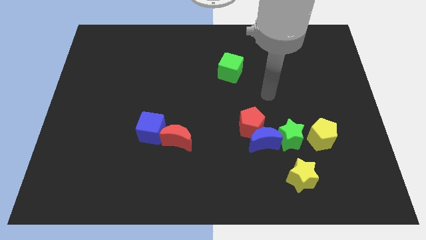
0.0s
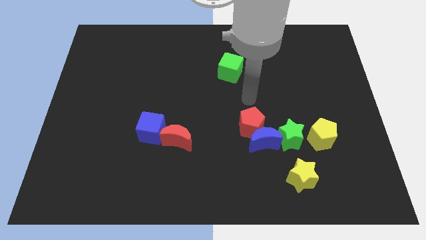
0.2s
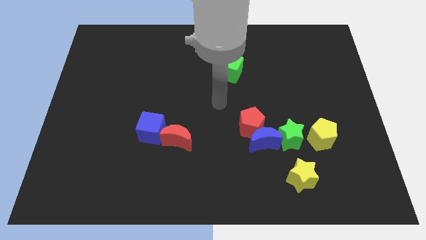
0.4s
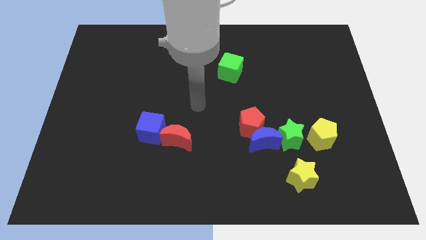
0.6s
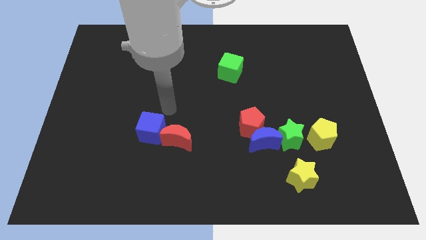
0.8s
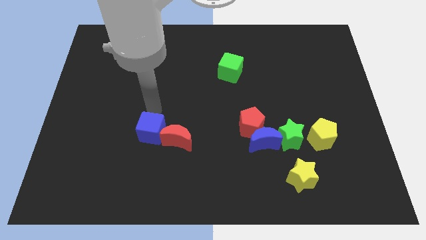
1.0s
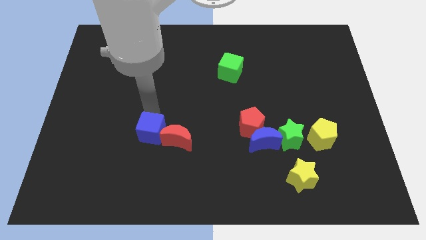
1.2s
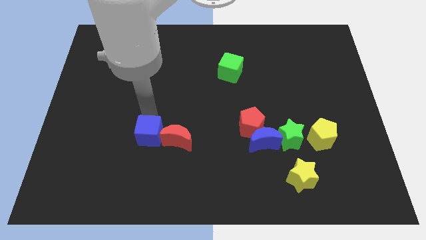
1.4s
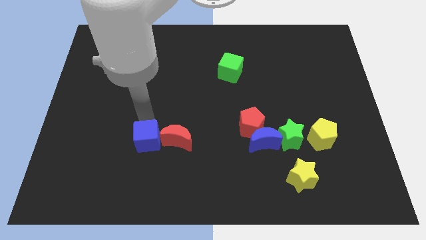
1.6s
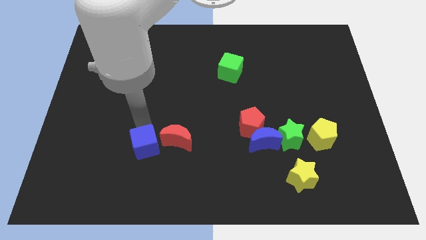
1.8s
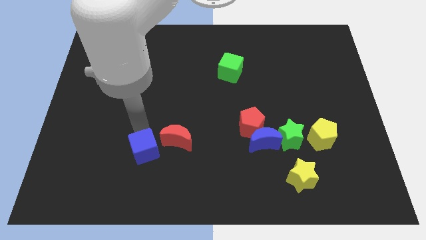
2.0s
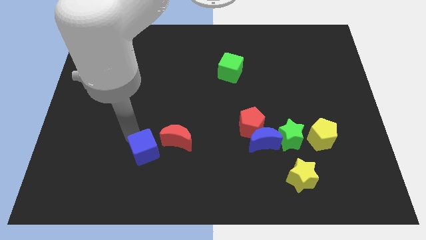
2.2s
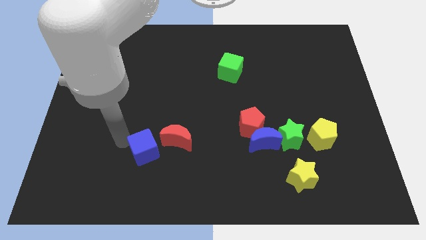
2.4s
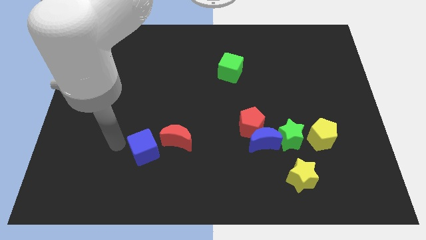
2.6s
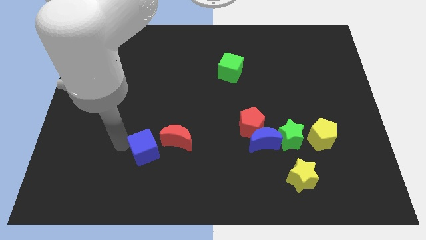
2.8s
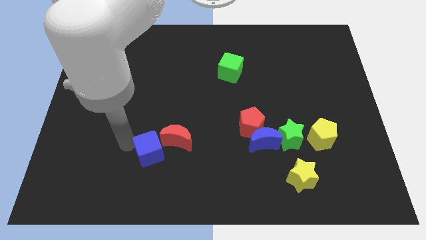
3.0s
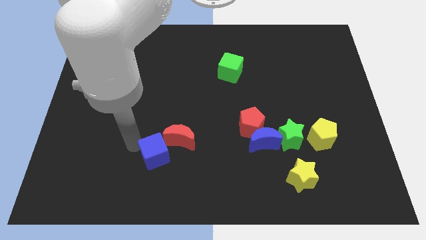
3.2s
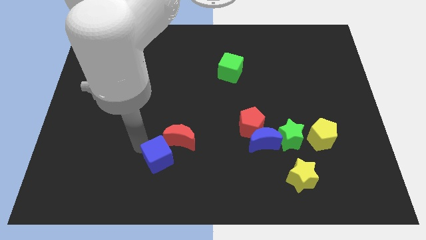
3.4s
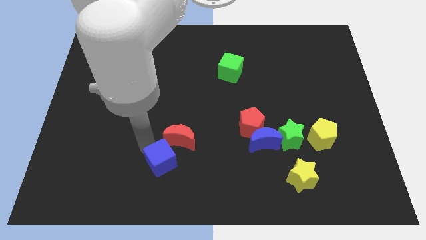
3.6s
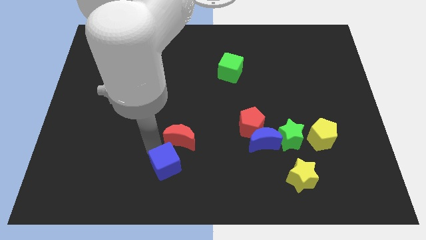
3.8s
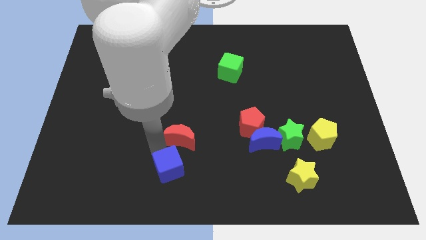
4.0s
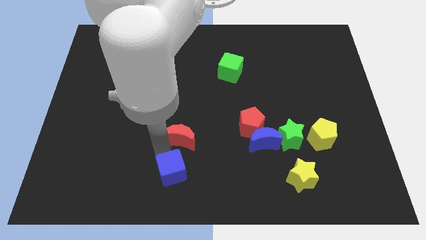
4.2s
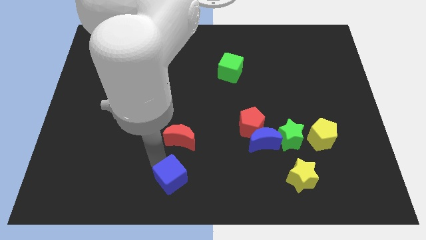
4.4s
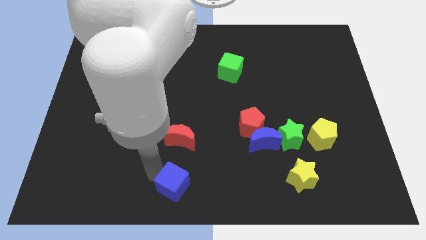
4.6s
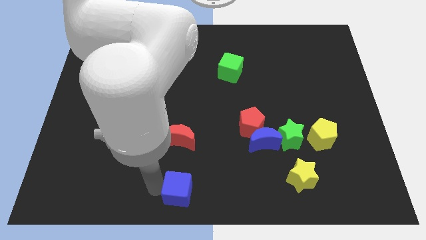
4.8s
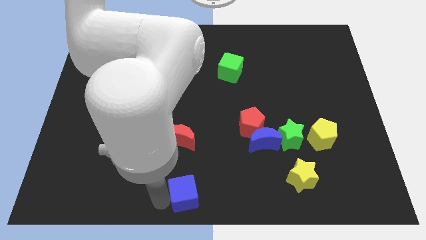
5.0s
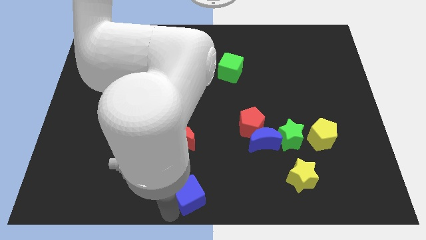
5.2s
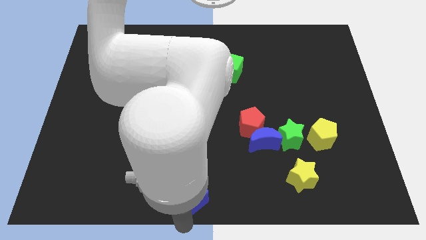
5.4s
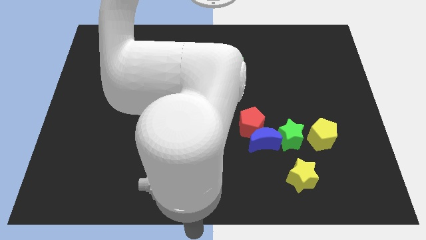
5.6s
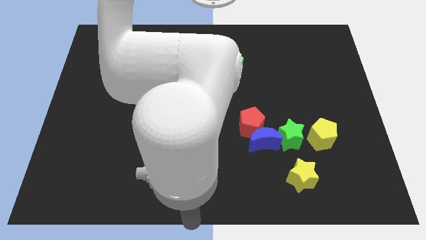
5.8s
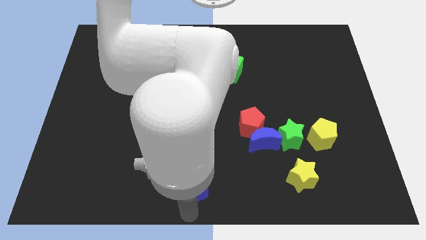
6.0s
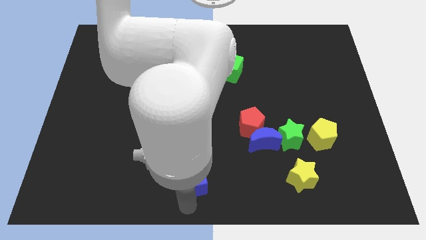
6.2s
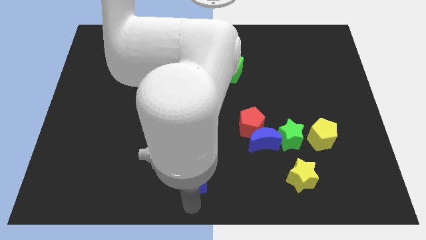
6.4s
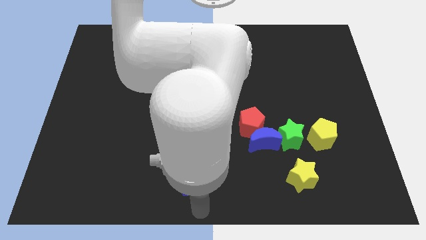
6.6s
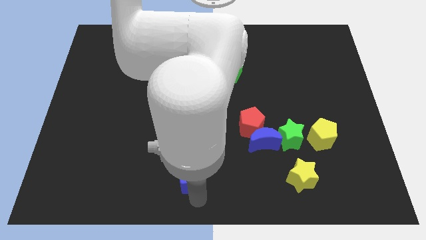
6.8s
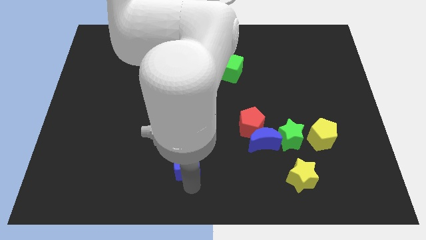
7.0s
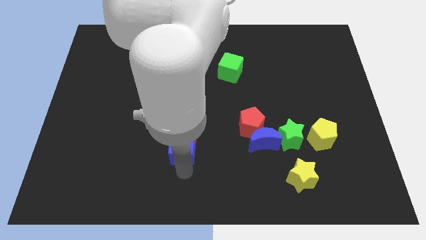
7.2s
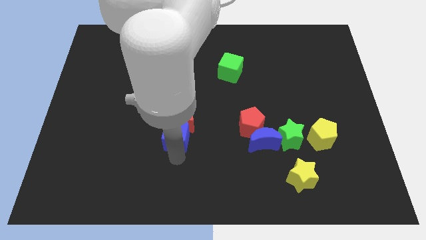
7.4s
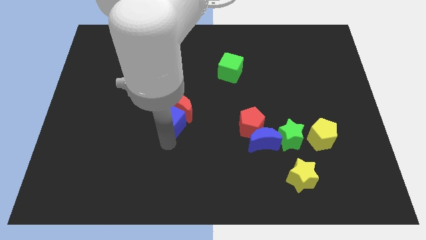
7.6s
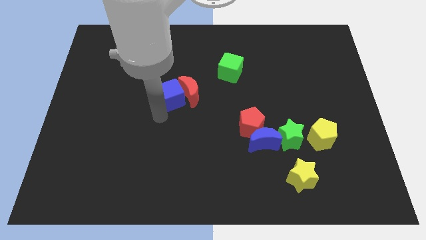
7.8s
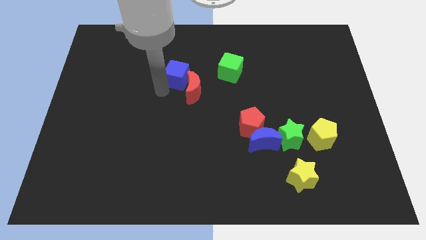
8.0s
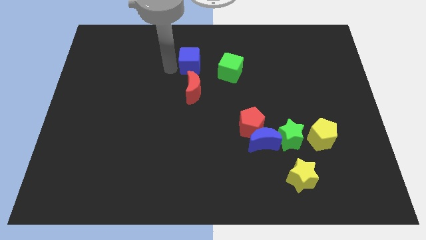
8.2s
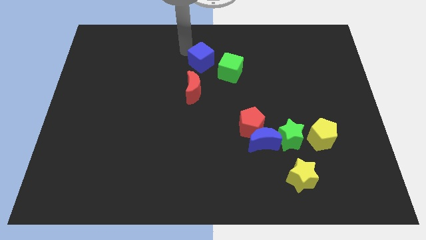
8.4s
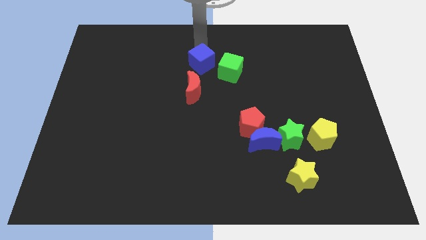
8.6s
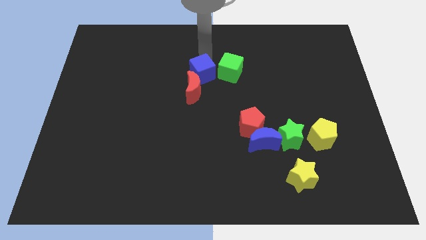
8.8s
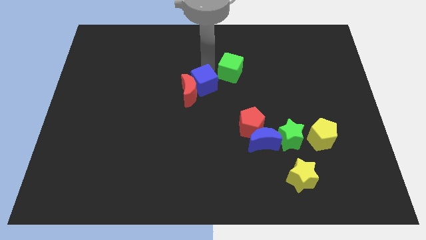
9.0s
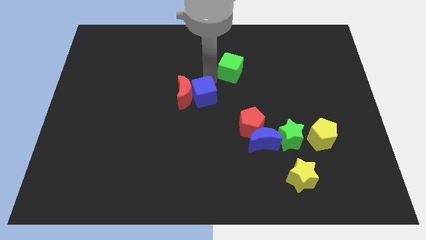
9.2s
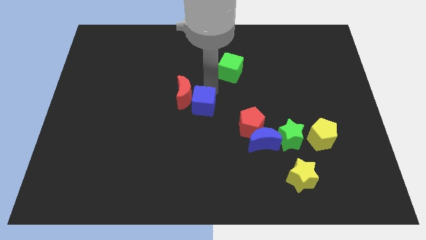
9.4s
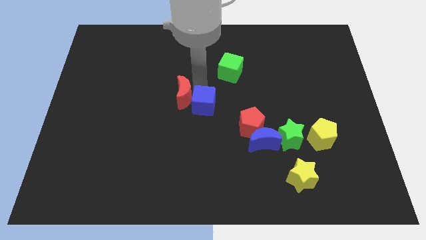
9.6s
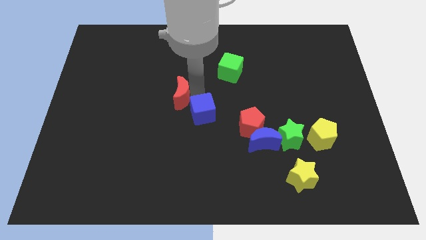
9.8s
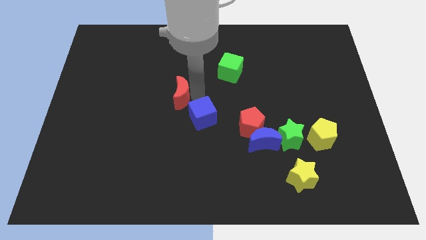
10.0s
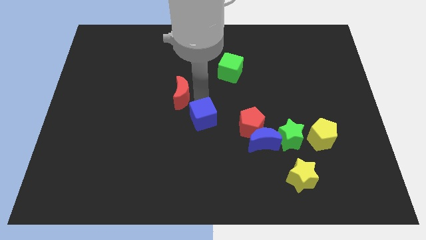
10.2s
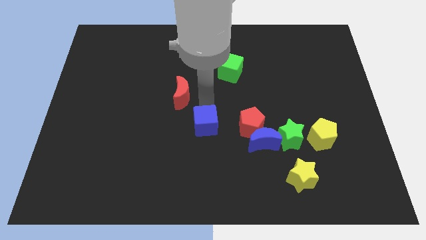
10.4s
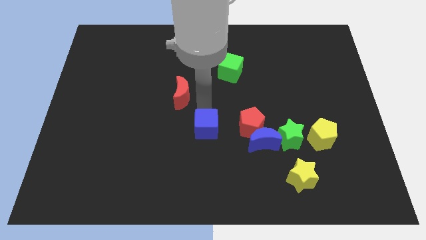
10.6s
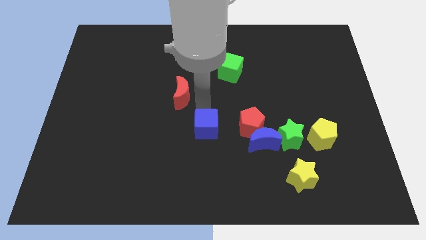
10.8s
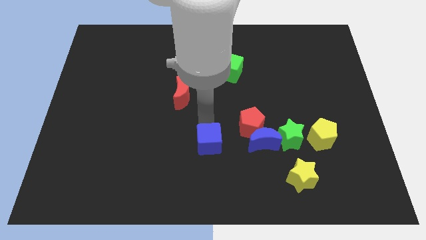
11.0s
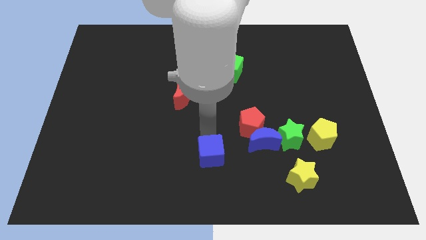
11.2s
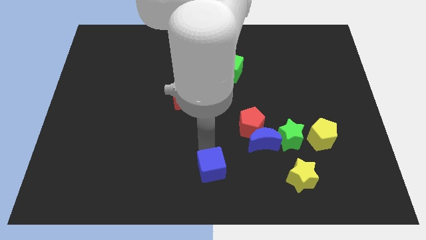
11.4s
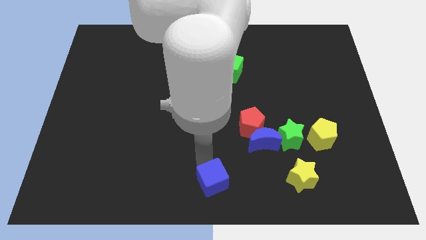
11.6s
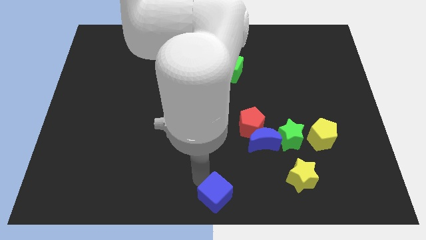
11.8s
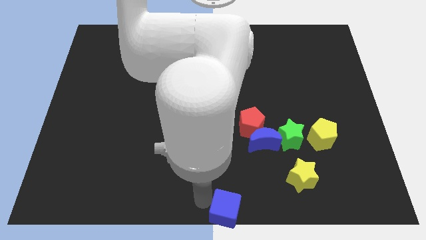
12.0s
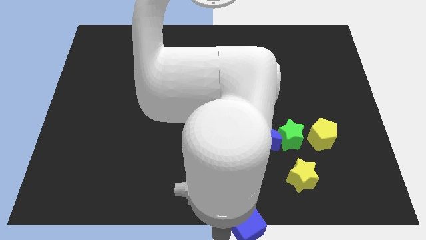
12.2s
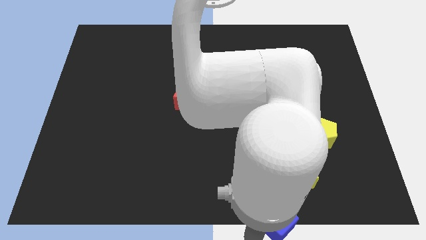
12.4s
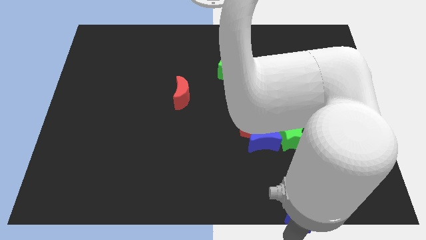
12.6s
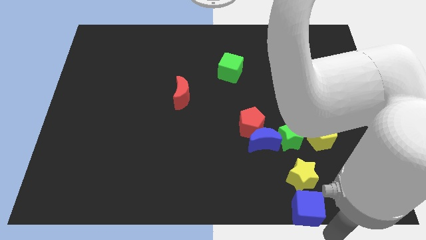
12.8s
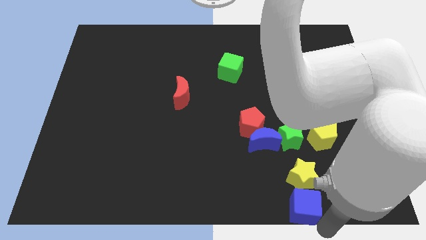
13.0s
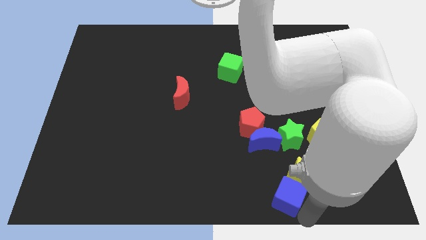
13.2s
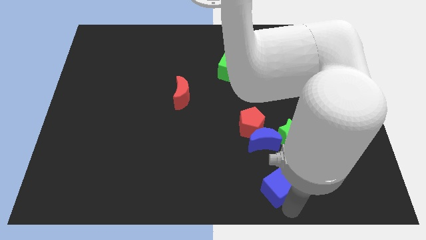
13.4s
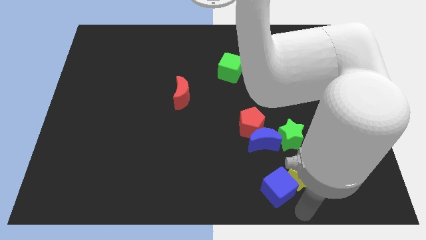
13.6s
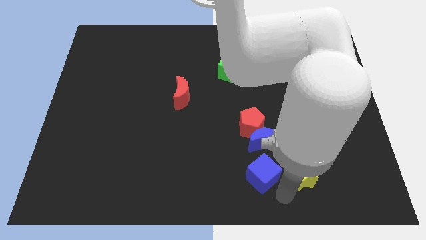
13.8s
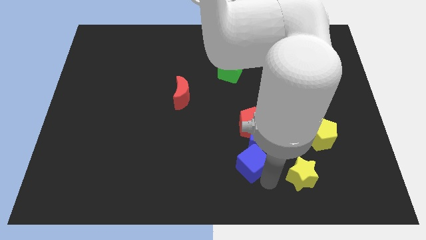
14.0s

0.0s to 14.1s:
move the blue cube next to the blue moon
